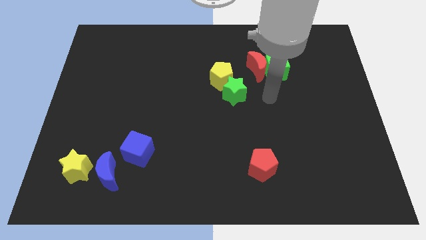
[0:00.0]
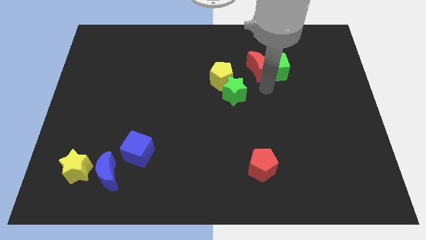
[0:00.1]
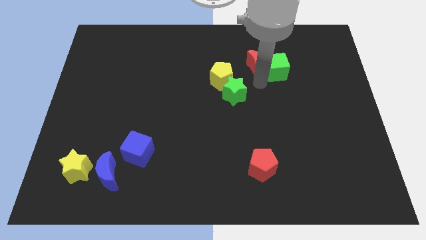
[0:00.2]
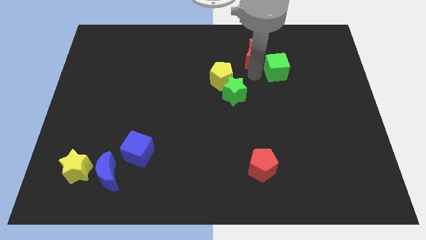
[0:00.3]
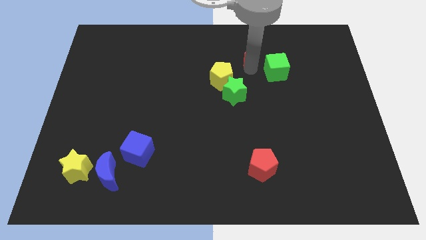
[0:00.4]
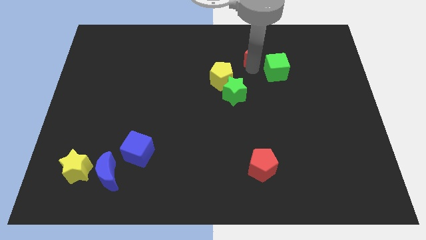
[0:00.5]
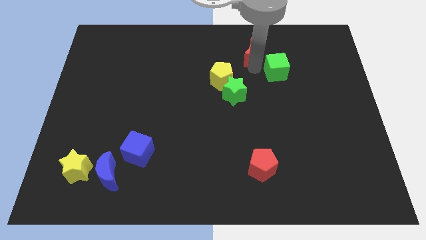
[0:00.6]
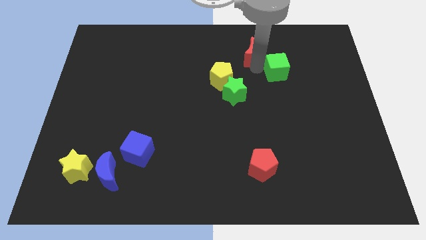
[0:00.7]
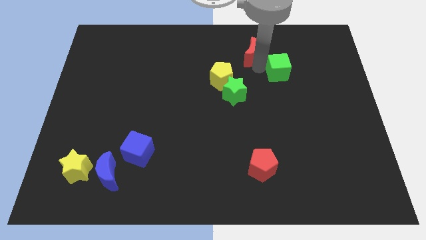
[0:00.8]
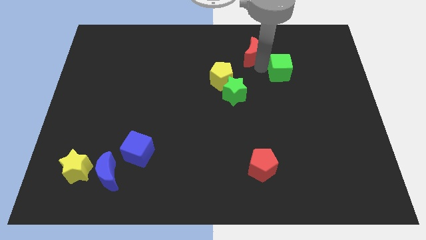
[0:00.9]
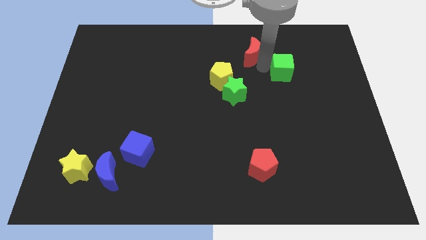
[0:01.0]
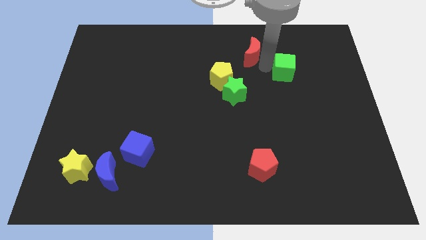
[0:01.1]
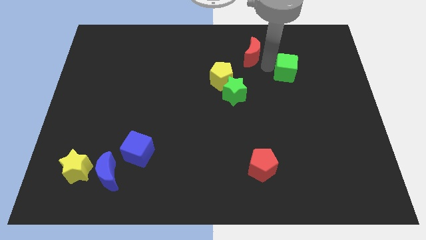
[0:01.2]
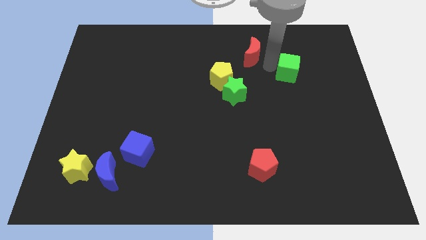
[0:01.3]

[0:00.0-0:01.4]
move the green cube away from the red moon

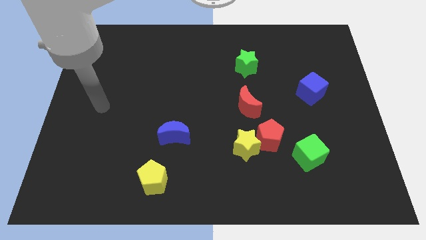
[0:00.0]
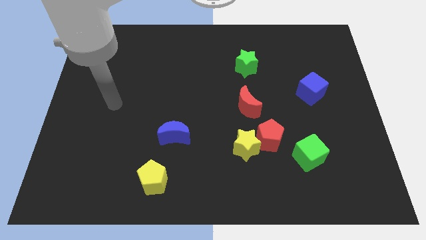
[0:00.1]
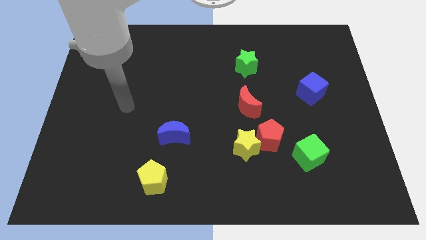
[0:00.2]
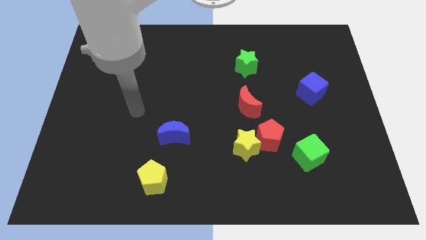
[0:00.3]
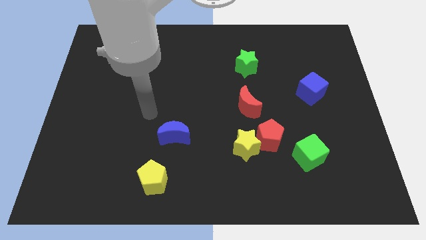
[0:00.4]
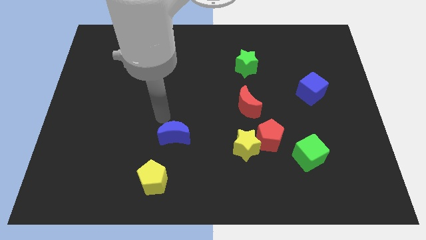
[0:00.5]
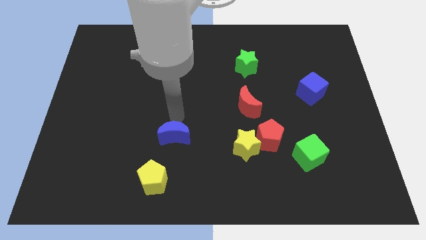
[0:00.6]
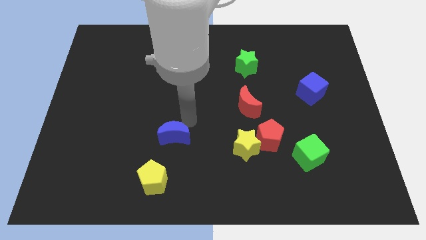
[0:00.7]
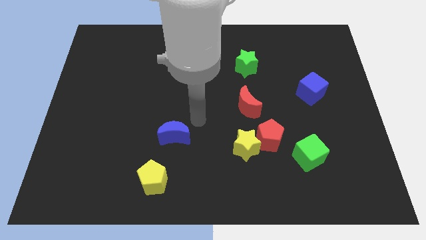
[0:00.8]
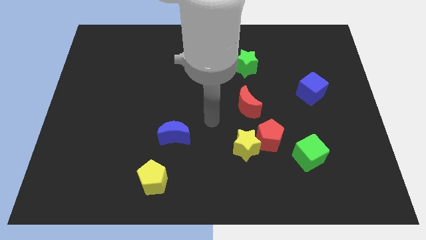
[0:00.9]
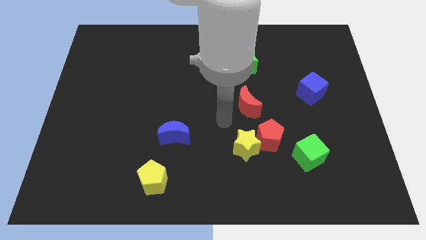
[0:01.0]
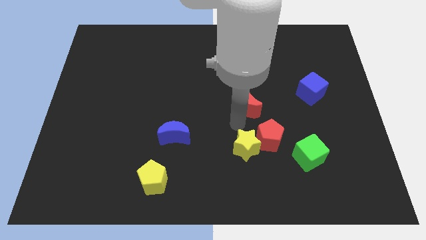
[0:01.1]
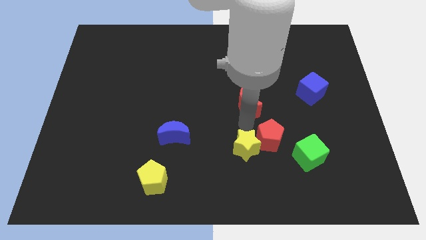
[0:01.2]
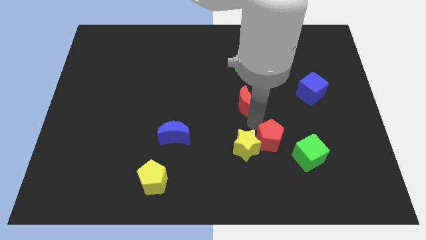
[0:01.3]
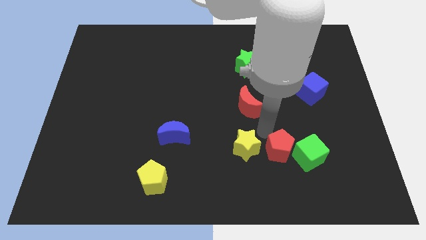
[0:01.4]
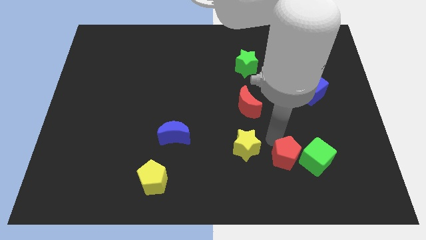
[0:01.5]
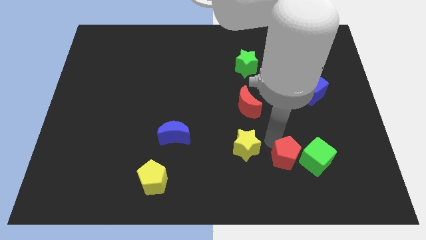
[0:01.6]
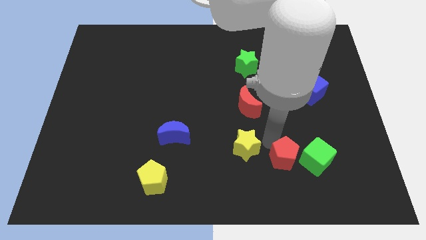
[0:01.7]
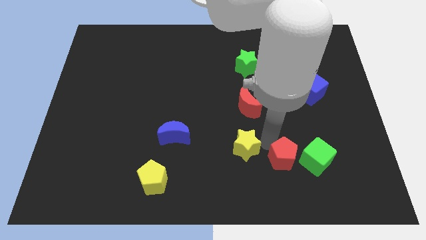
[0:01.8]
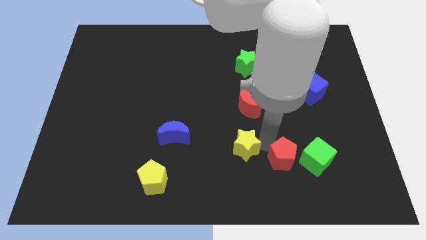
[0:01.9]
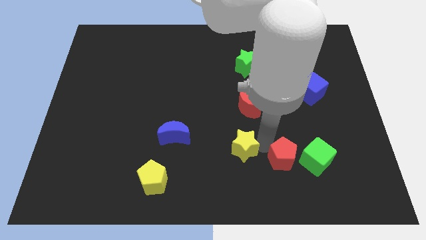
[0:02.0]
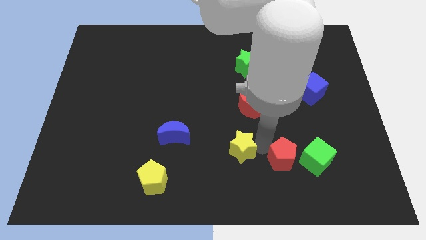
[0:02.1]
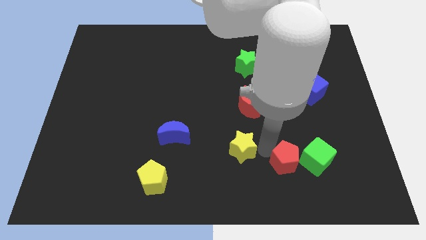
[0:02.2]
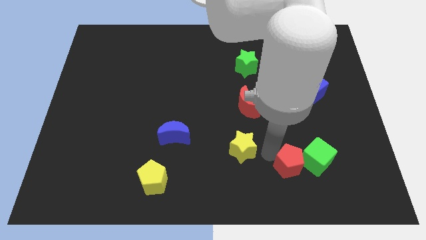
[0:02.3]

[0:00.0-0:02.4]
separate the yellow star from the red pentagon

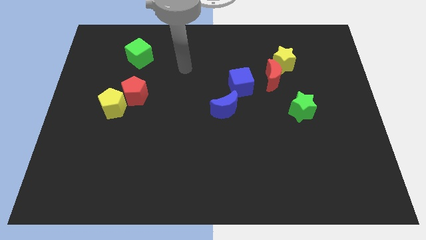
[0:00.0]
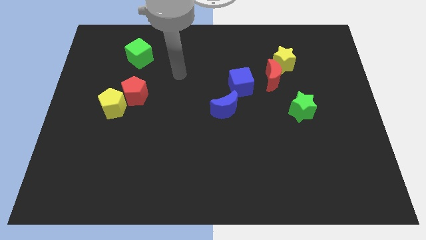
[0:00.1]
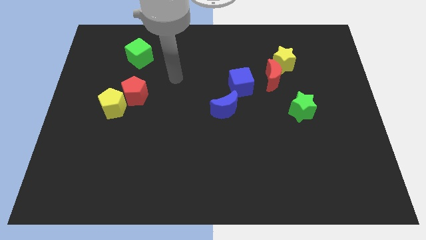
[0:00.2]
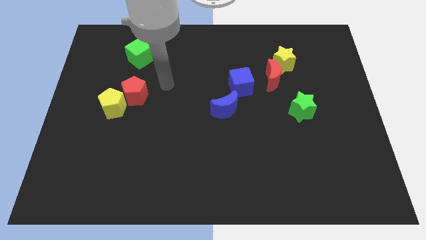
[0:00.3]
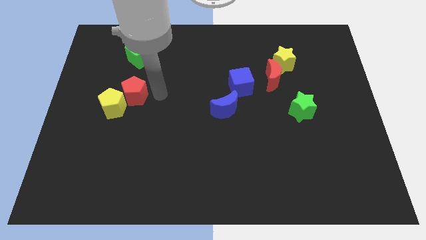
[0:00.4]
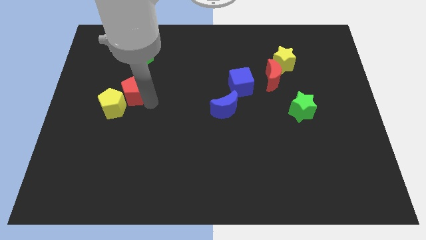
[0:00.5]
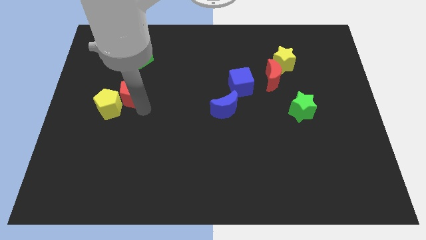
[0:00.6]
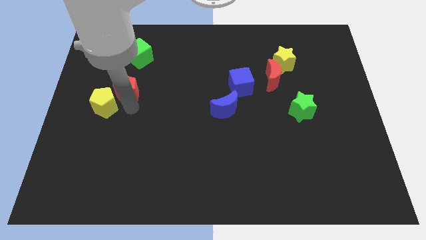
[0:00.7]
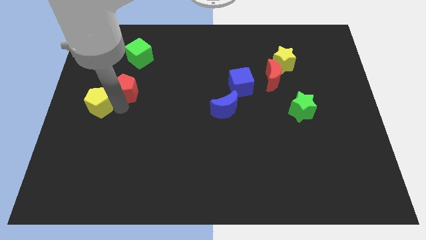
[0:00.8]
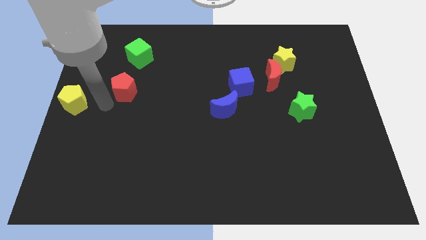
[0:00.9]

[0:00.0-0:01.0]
separate the red pentagon from the yellow pentagon

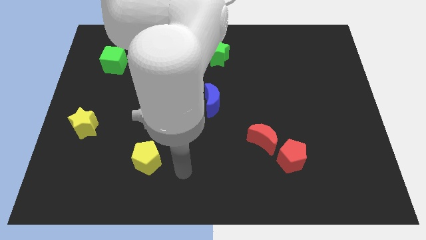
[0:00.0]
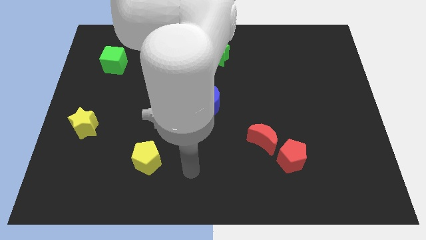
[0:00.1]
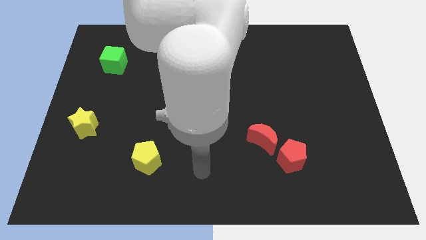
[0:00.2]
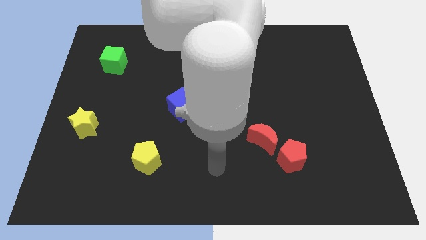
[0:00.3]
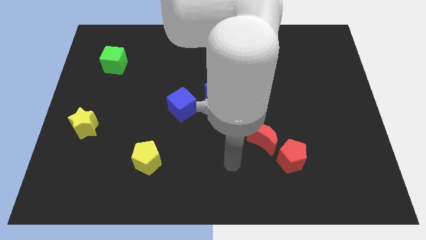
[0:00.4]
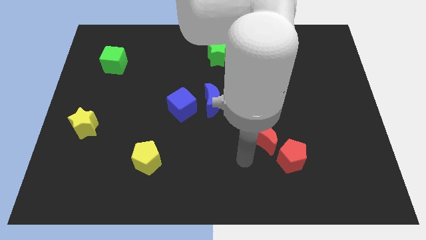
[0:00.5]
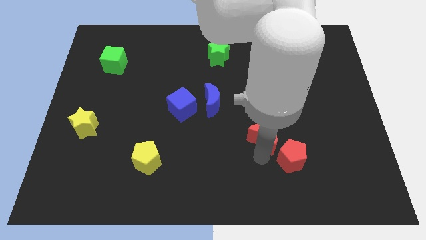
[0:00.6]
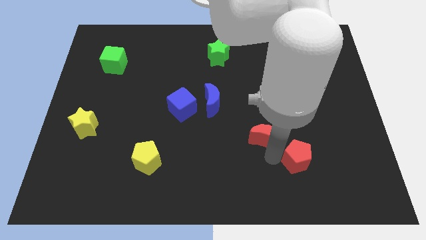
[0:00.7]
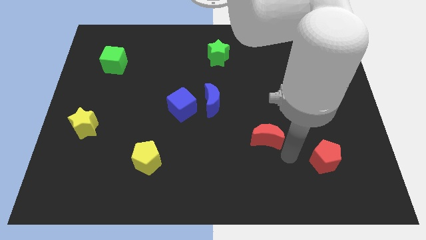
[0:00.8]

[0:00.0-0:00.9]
move the red moon away from the red pentagon

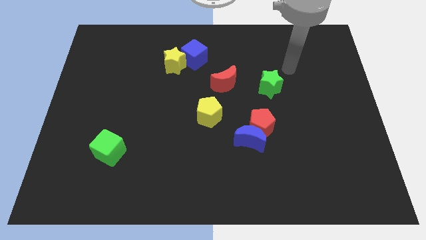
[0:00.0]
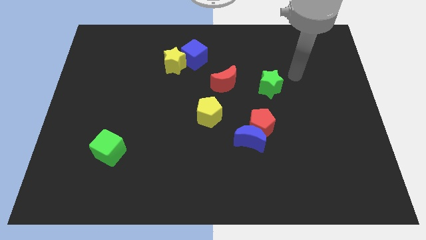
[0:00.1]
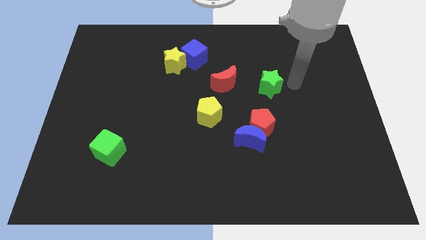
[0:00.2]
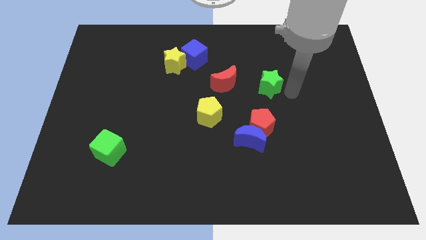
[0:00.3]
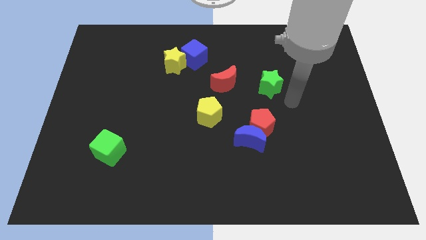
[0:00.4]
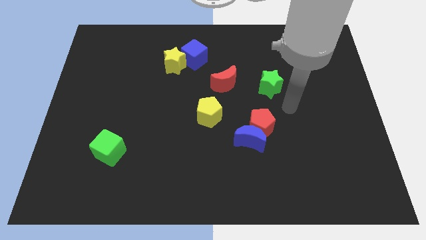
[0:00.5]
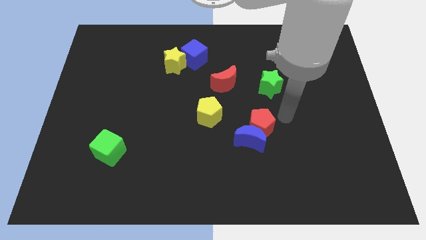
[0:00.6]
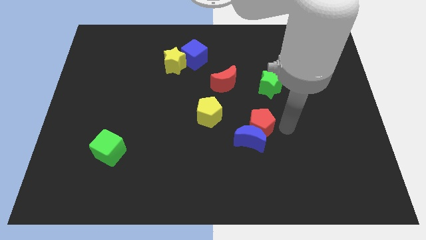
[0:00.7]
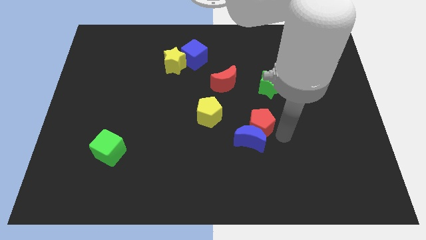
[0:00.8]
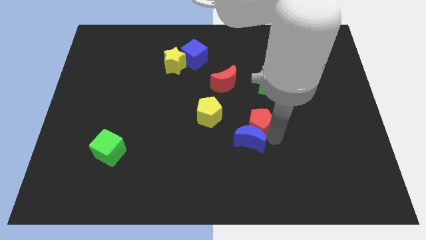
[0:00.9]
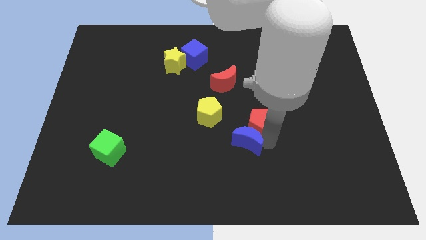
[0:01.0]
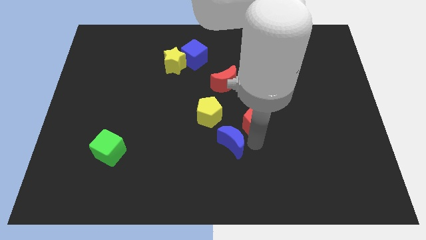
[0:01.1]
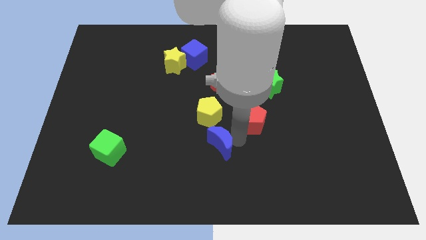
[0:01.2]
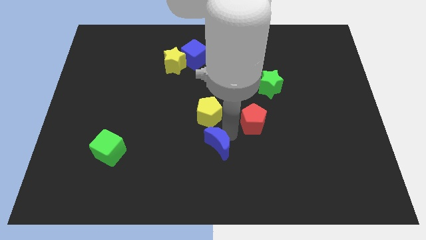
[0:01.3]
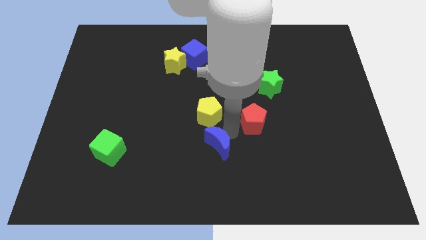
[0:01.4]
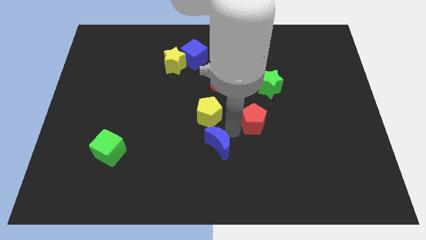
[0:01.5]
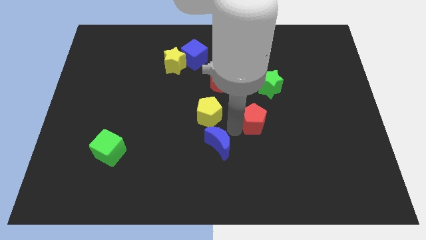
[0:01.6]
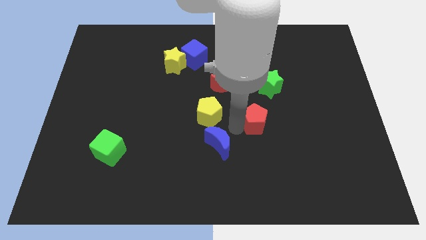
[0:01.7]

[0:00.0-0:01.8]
separate the red pentagon from the blue moon

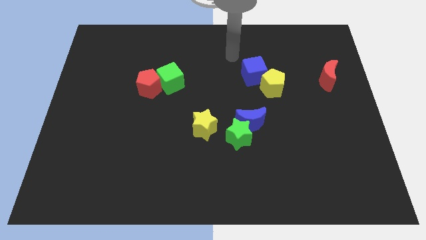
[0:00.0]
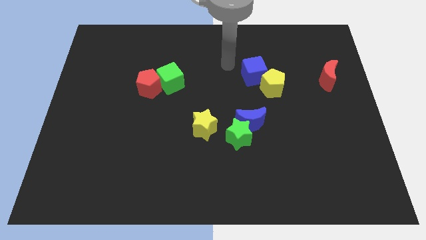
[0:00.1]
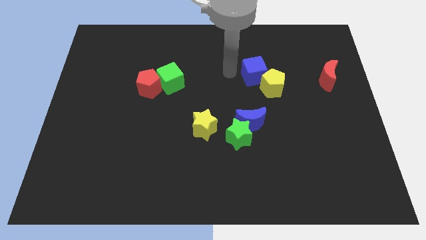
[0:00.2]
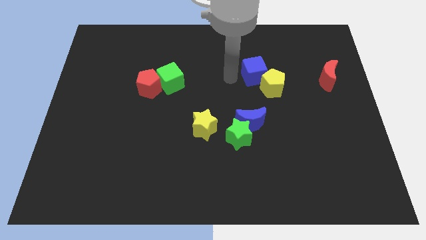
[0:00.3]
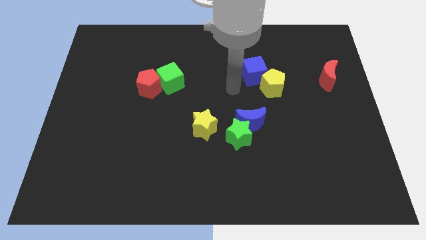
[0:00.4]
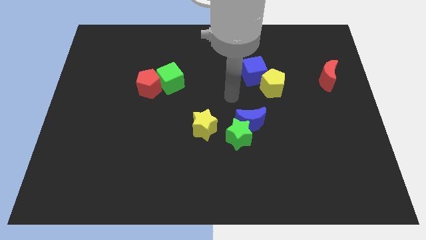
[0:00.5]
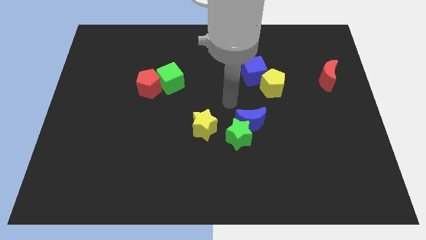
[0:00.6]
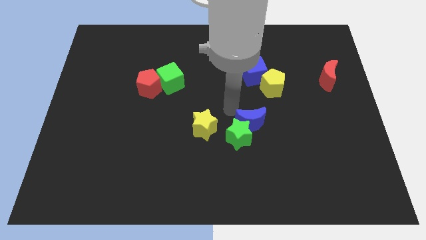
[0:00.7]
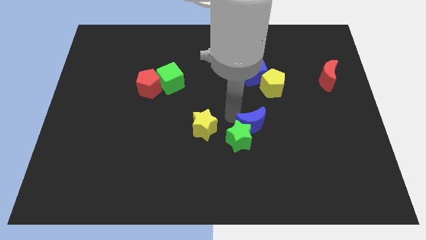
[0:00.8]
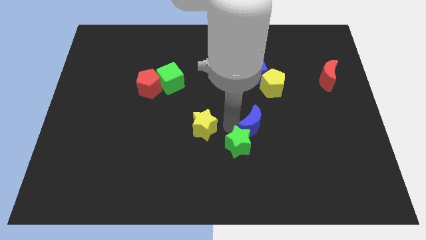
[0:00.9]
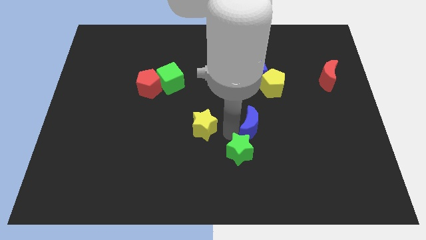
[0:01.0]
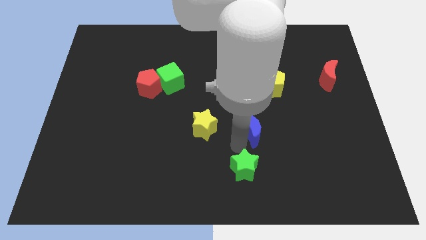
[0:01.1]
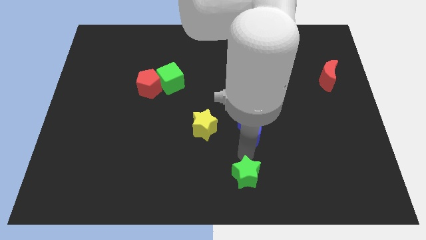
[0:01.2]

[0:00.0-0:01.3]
separate the blue moon from the green star

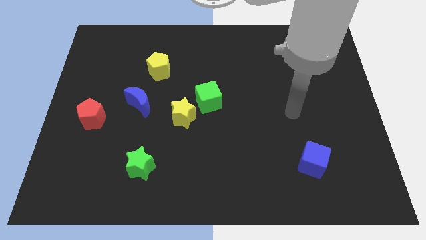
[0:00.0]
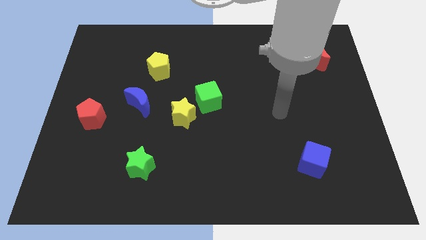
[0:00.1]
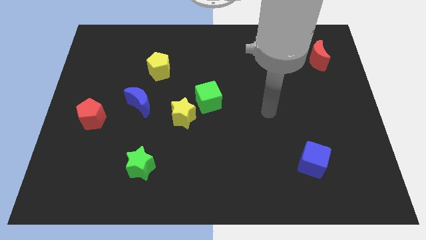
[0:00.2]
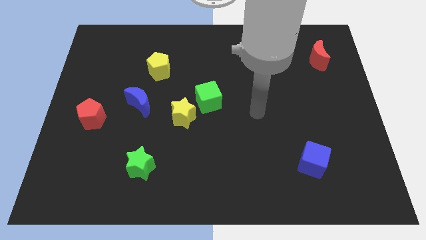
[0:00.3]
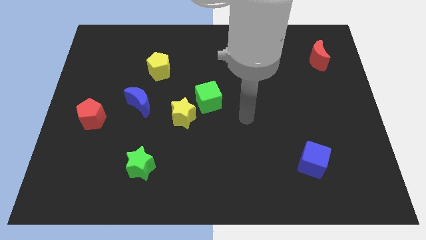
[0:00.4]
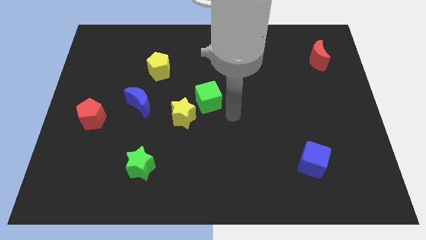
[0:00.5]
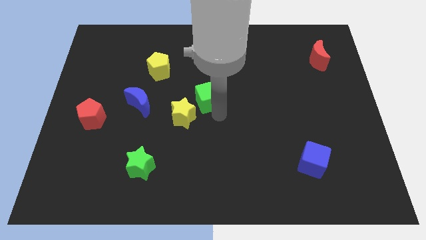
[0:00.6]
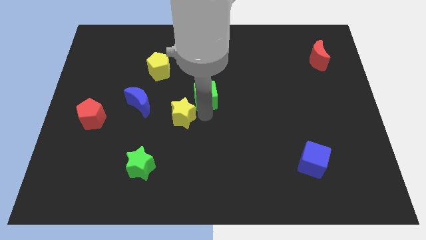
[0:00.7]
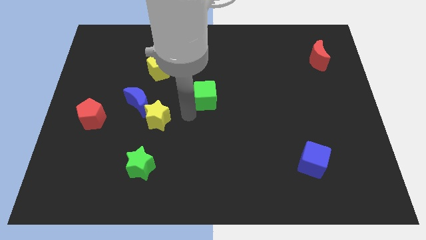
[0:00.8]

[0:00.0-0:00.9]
pull the green cube apart from the yellow star
